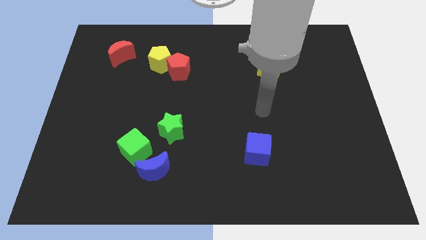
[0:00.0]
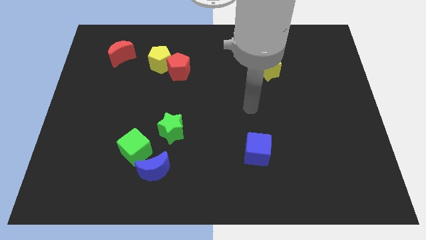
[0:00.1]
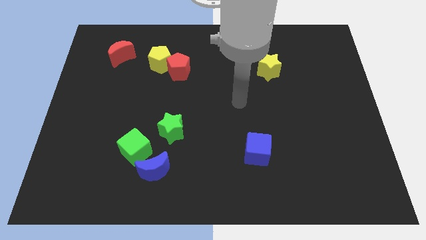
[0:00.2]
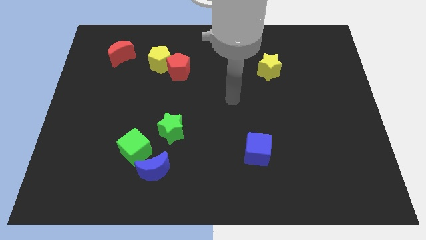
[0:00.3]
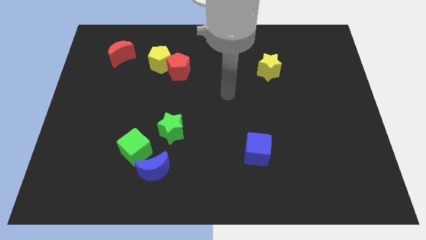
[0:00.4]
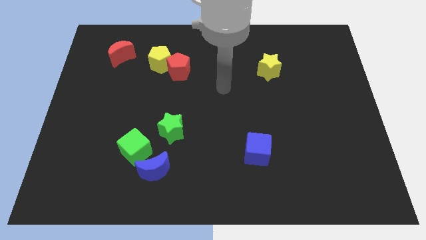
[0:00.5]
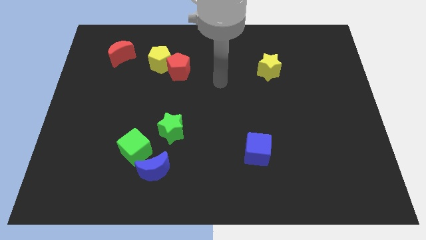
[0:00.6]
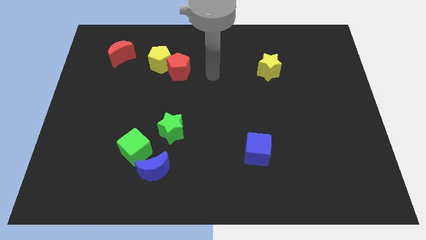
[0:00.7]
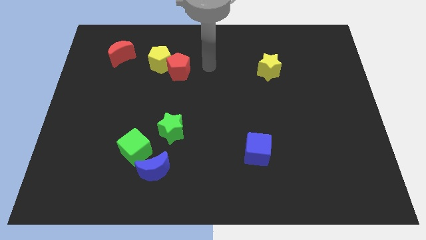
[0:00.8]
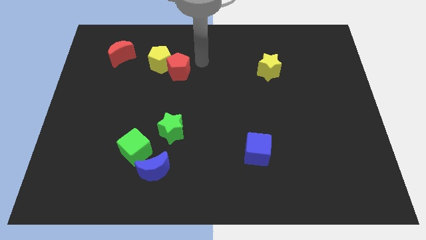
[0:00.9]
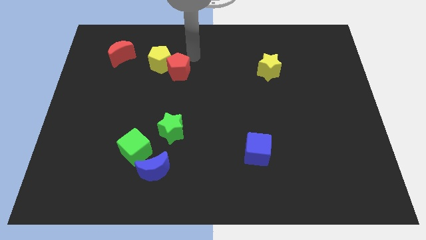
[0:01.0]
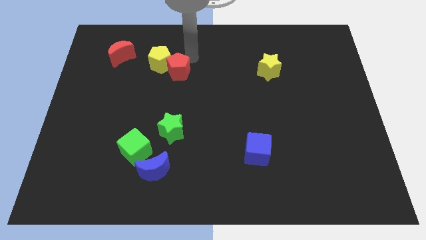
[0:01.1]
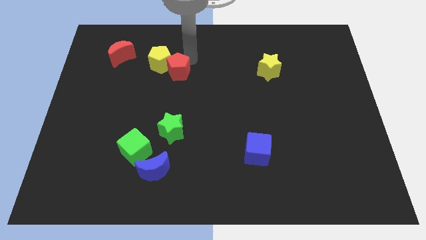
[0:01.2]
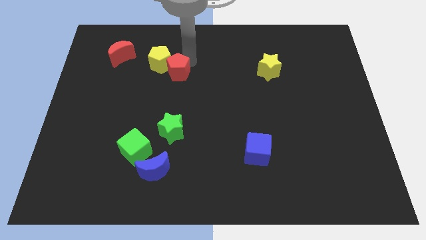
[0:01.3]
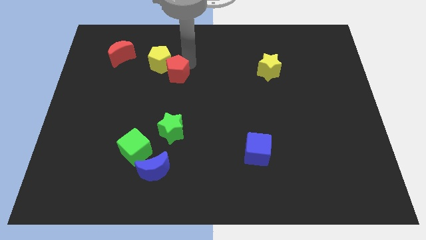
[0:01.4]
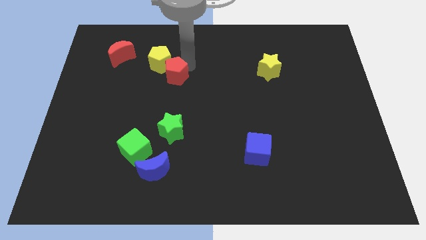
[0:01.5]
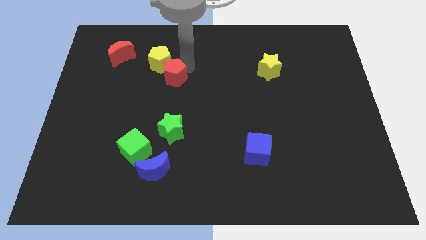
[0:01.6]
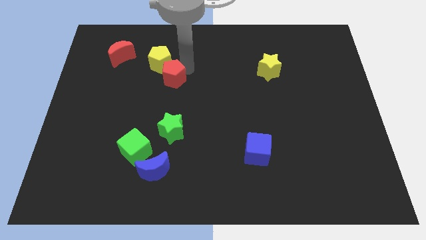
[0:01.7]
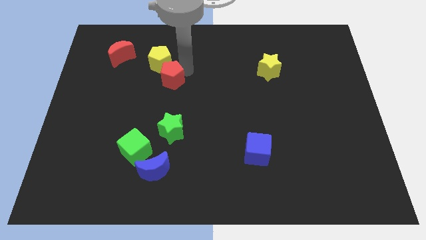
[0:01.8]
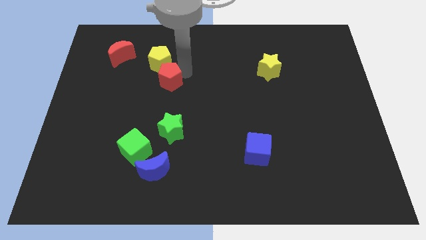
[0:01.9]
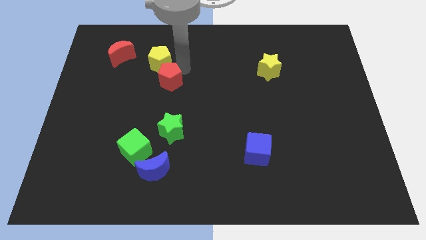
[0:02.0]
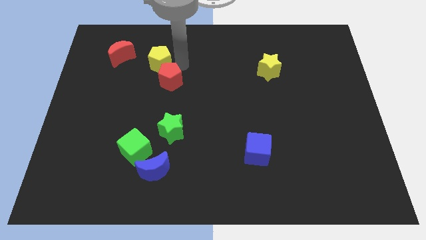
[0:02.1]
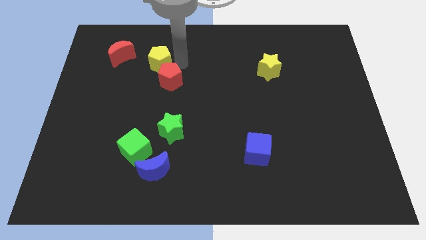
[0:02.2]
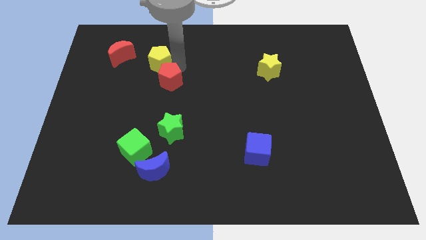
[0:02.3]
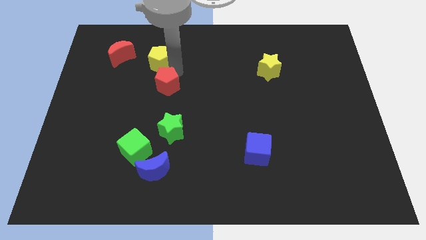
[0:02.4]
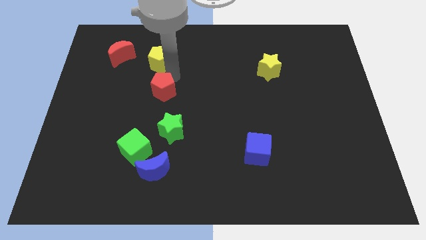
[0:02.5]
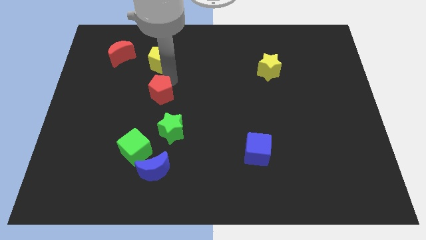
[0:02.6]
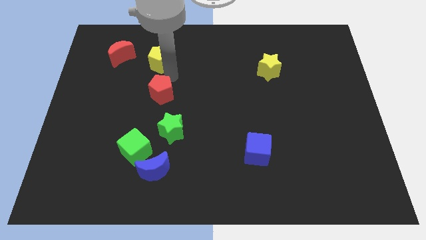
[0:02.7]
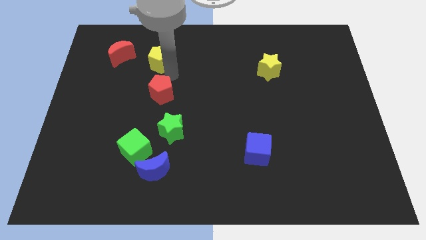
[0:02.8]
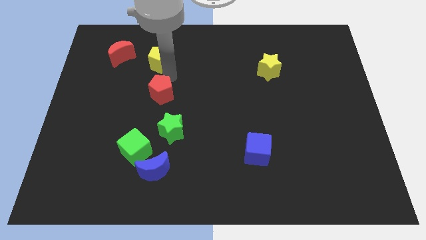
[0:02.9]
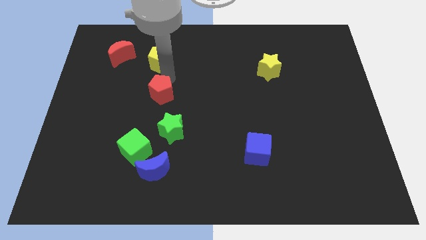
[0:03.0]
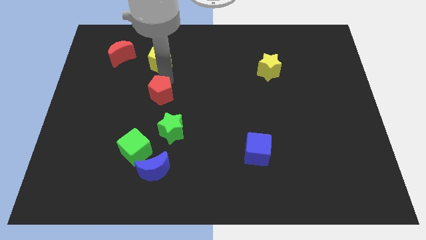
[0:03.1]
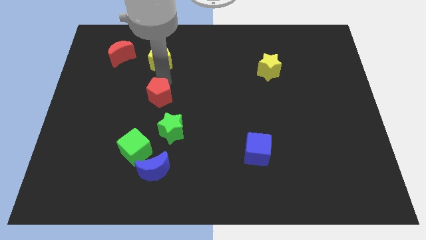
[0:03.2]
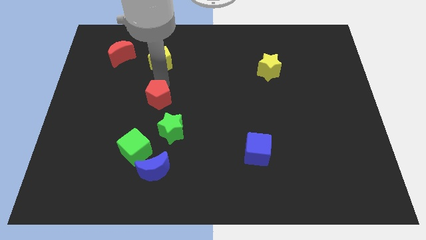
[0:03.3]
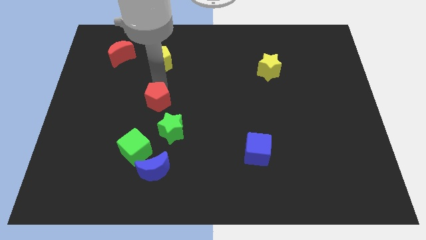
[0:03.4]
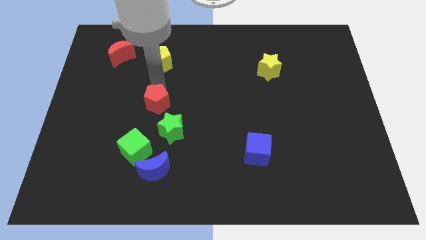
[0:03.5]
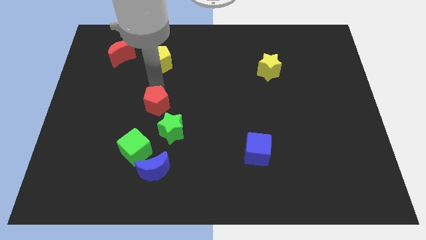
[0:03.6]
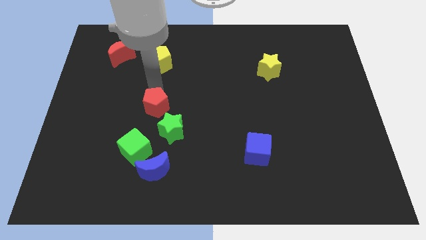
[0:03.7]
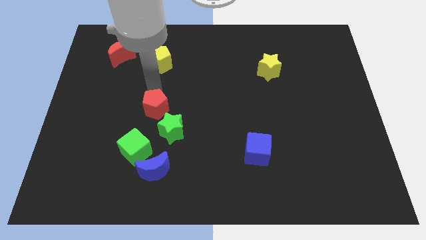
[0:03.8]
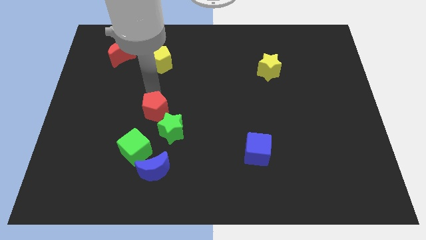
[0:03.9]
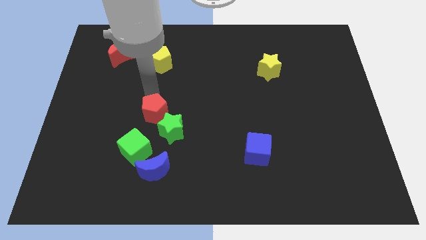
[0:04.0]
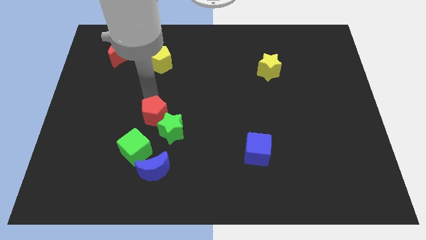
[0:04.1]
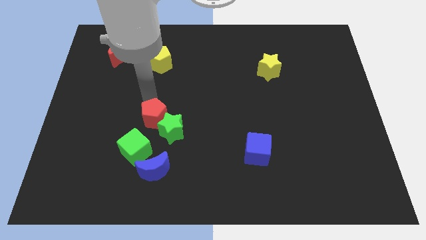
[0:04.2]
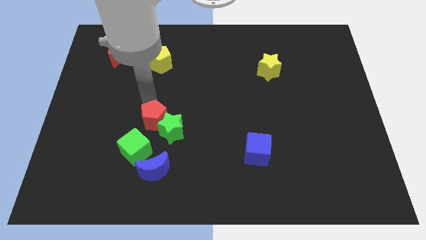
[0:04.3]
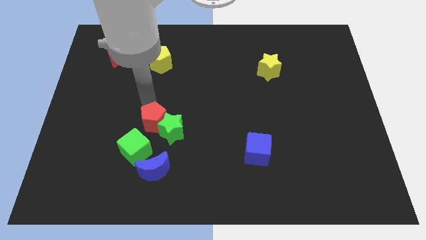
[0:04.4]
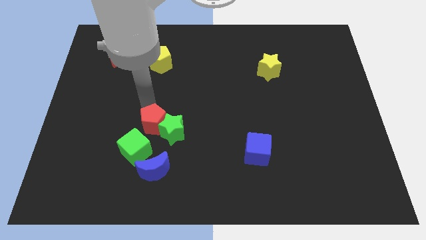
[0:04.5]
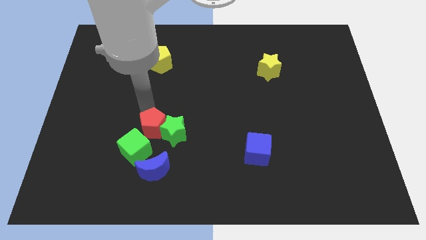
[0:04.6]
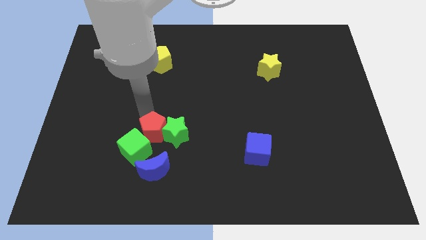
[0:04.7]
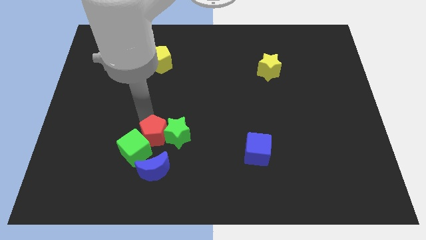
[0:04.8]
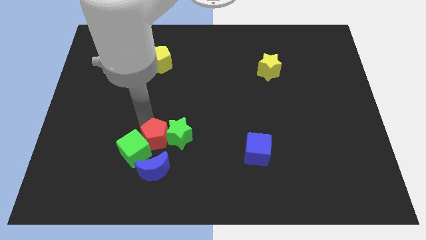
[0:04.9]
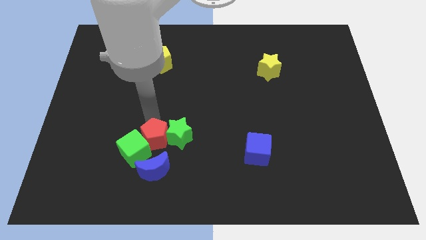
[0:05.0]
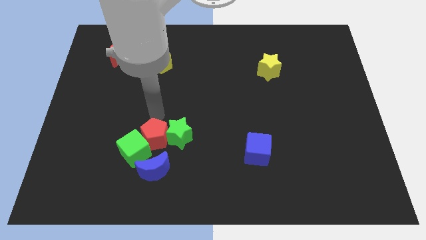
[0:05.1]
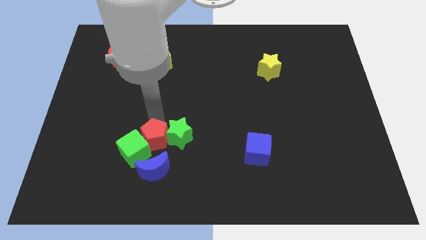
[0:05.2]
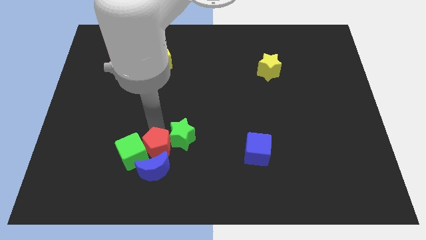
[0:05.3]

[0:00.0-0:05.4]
slide the red pentagon to the blue moon

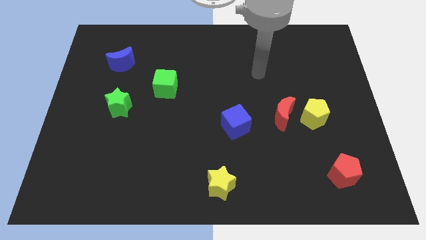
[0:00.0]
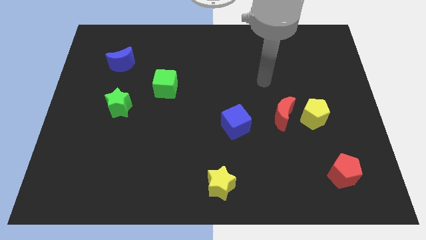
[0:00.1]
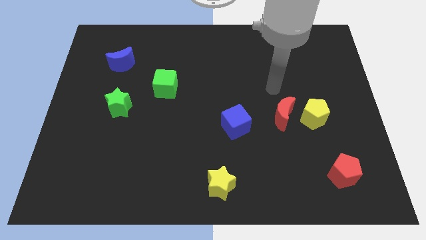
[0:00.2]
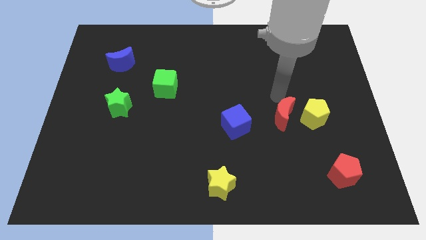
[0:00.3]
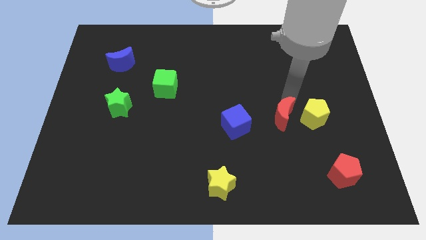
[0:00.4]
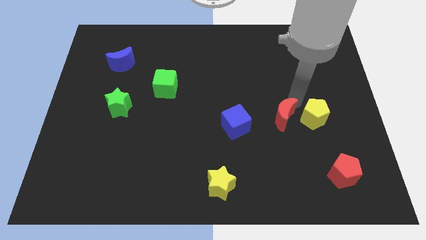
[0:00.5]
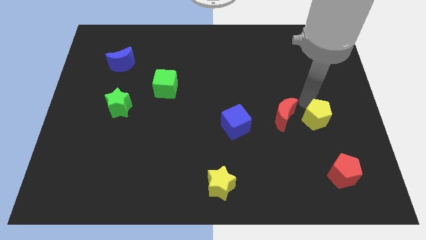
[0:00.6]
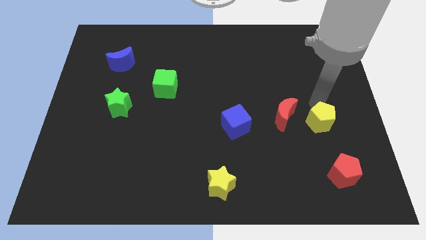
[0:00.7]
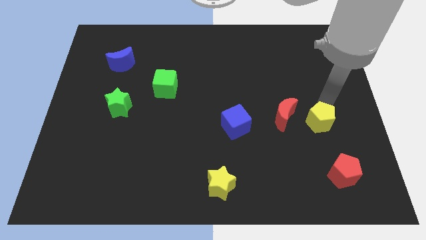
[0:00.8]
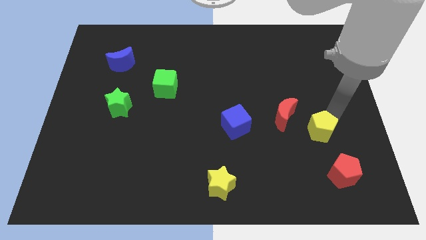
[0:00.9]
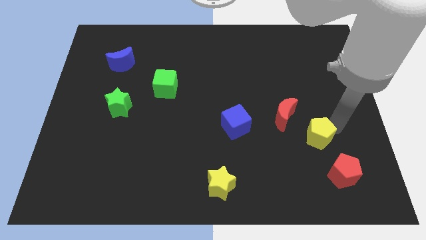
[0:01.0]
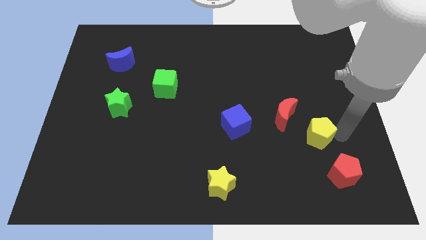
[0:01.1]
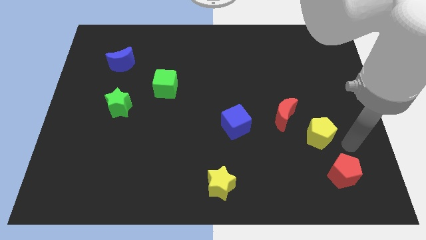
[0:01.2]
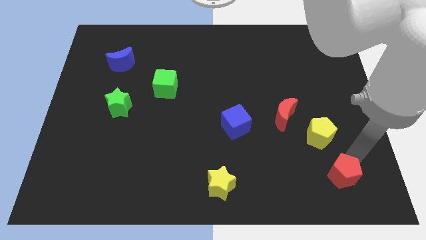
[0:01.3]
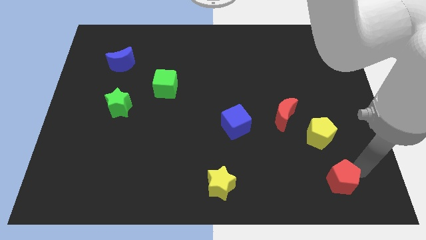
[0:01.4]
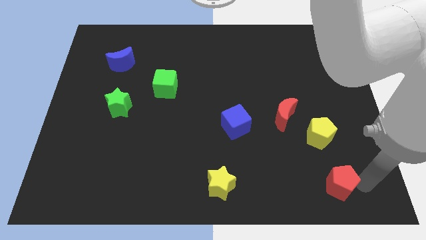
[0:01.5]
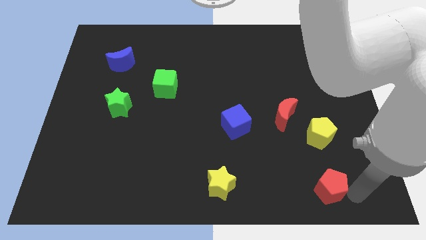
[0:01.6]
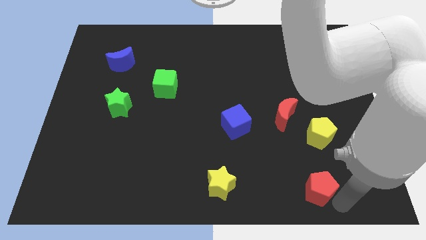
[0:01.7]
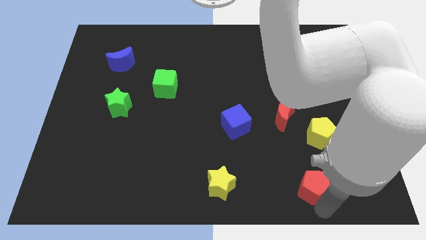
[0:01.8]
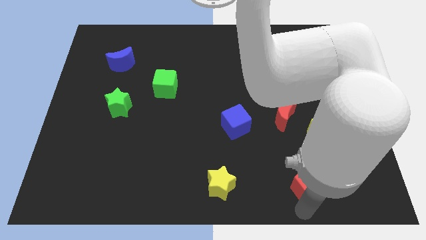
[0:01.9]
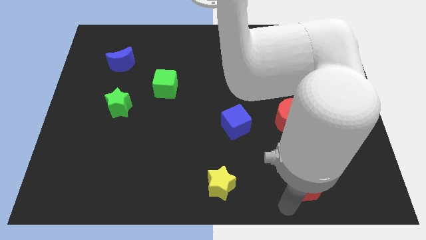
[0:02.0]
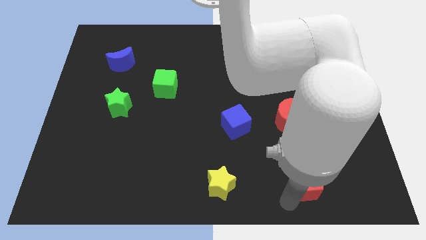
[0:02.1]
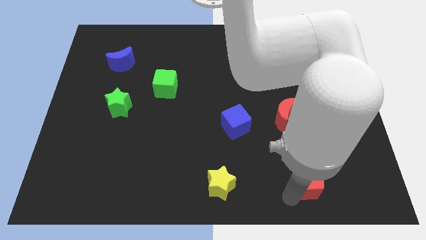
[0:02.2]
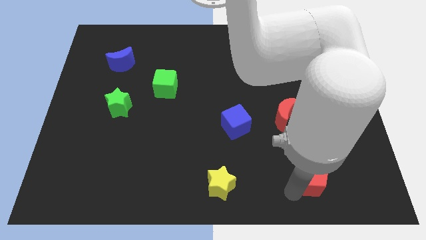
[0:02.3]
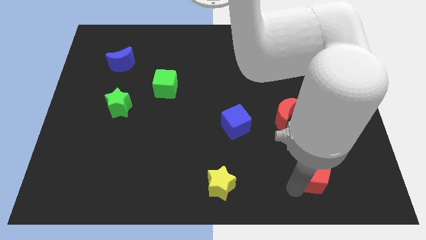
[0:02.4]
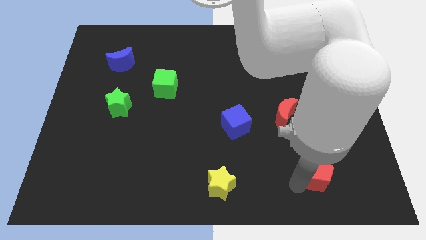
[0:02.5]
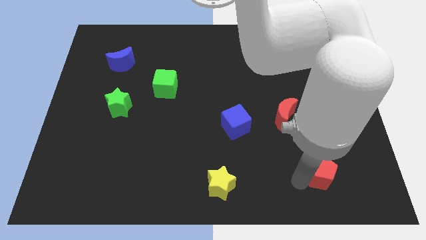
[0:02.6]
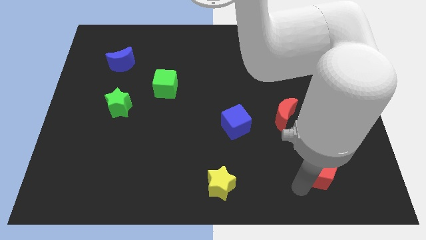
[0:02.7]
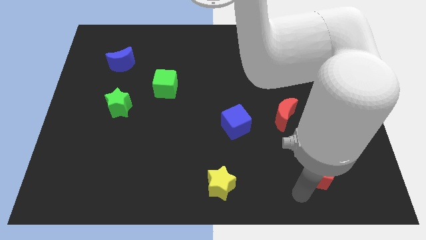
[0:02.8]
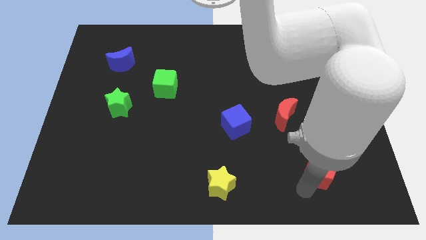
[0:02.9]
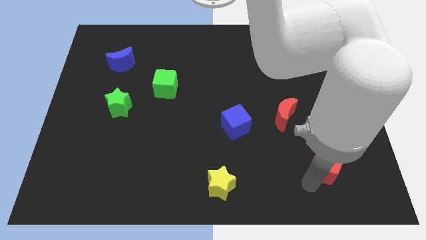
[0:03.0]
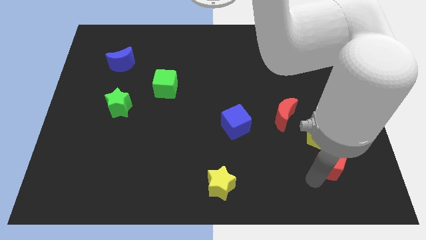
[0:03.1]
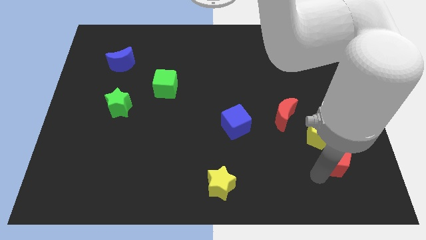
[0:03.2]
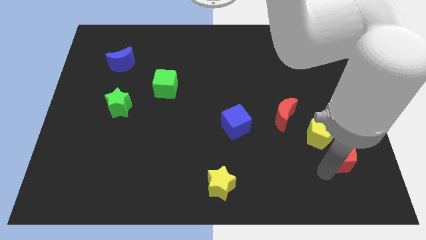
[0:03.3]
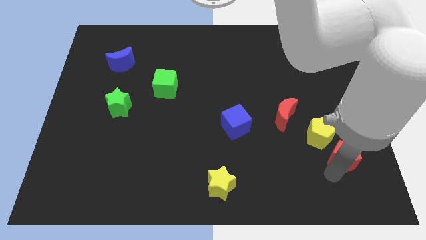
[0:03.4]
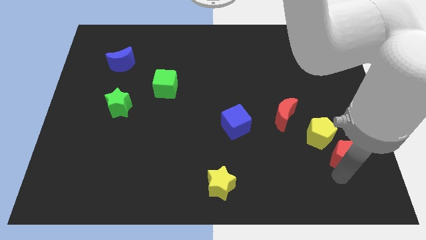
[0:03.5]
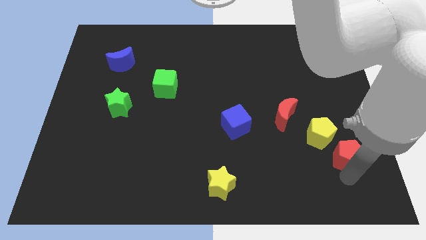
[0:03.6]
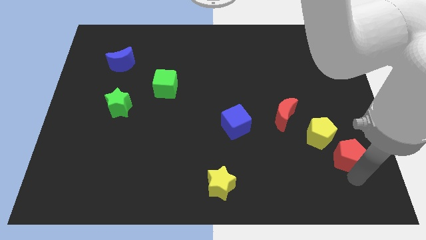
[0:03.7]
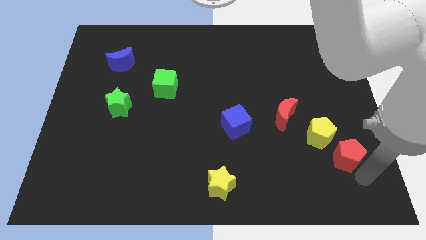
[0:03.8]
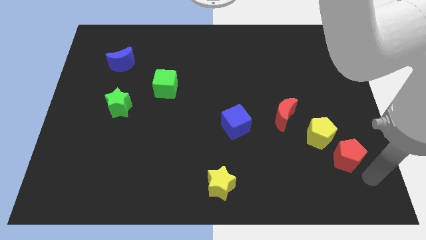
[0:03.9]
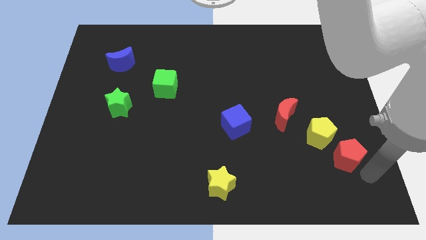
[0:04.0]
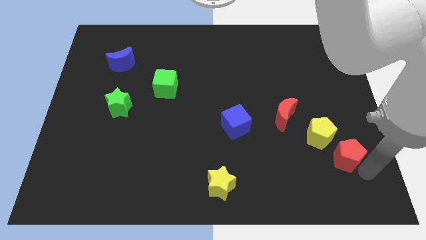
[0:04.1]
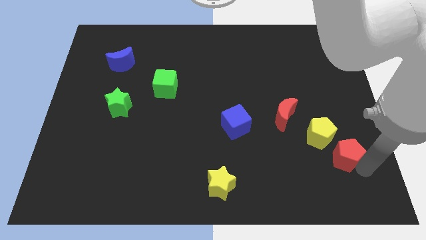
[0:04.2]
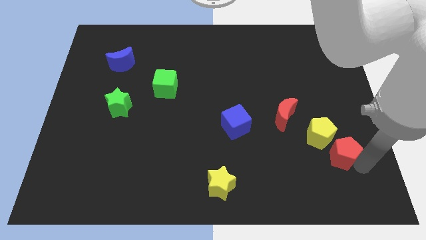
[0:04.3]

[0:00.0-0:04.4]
put the red pentagon towards the yellow pentagon
